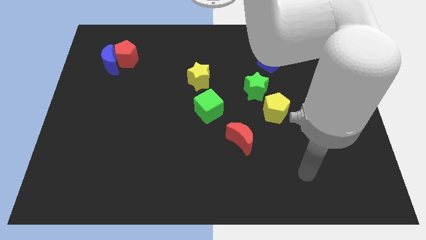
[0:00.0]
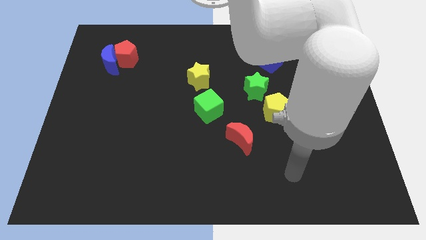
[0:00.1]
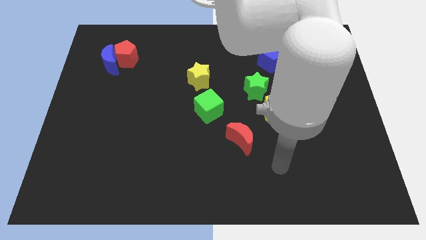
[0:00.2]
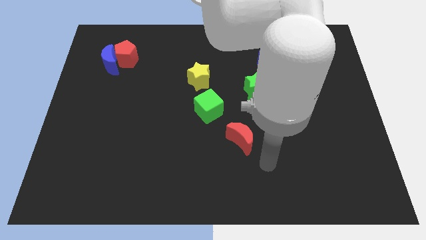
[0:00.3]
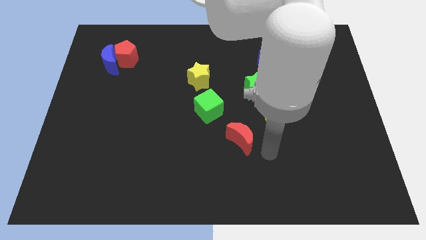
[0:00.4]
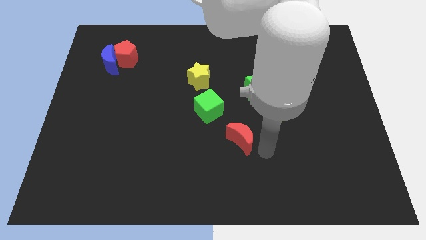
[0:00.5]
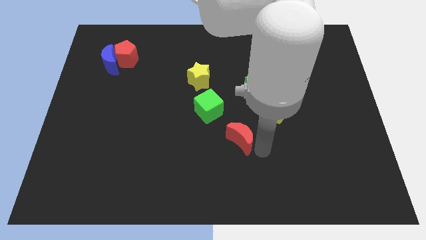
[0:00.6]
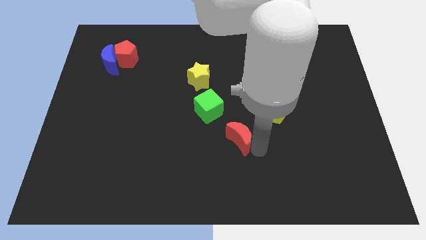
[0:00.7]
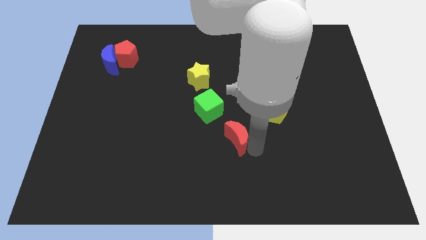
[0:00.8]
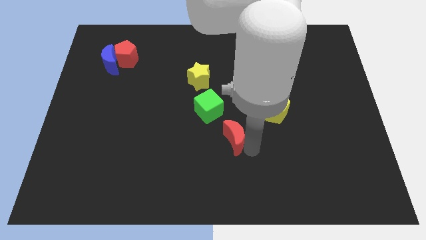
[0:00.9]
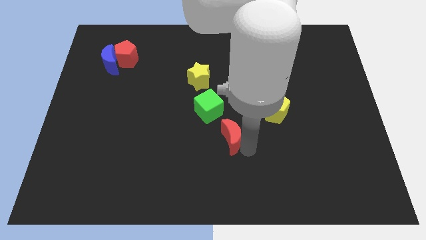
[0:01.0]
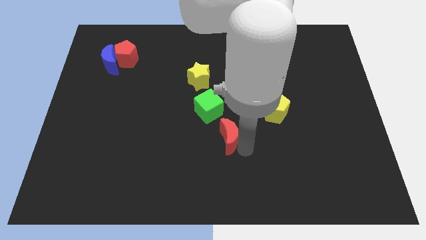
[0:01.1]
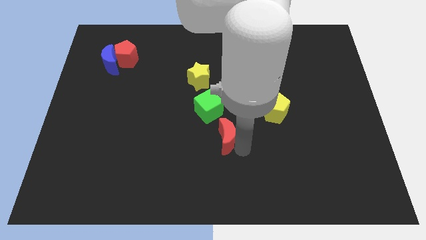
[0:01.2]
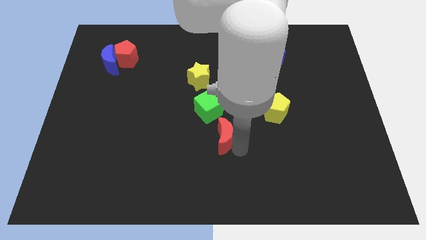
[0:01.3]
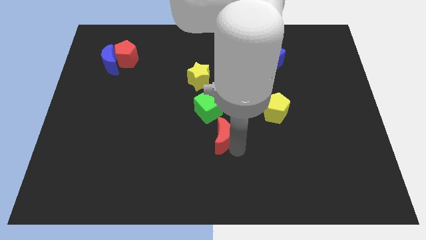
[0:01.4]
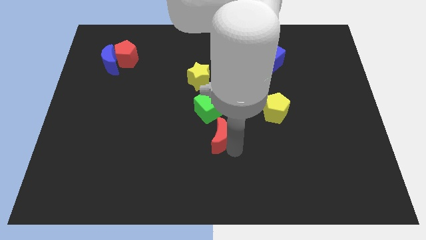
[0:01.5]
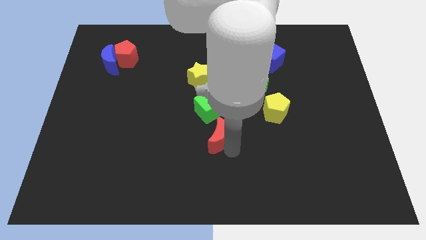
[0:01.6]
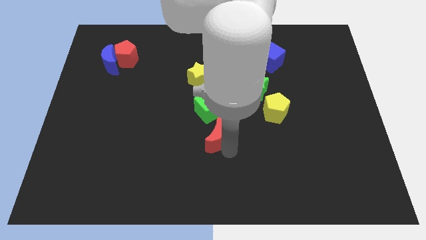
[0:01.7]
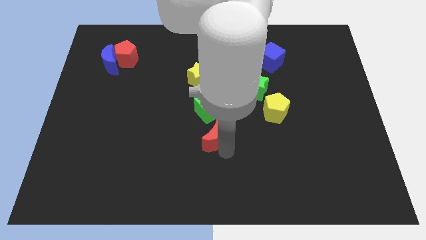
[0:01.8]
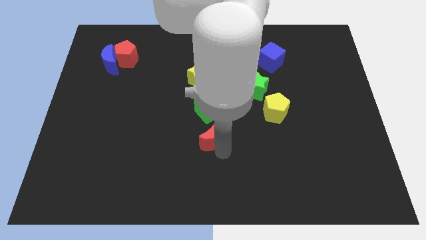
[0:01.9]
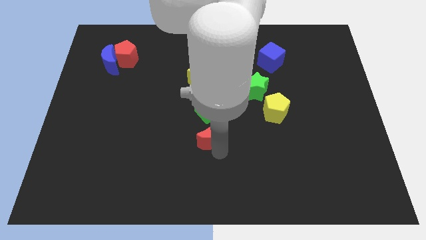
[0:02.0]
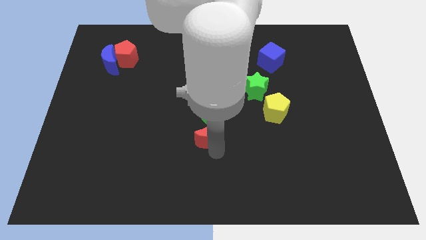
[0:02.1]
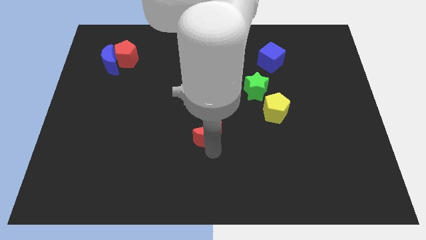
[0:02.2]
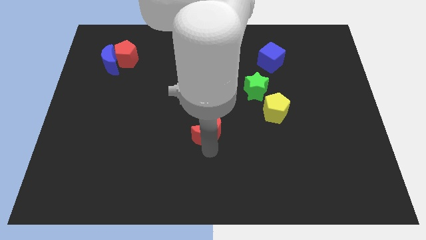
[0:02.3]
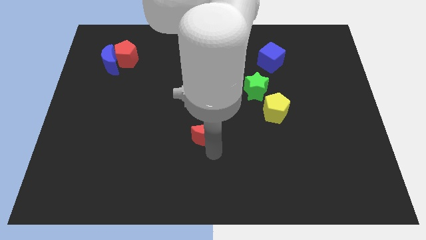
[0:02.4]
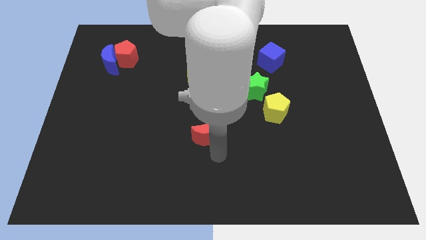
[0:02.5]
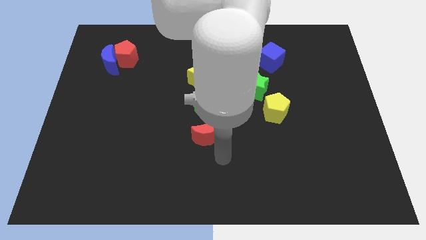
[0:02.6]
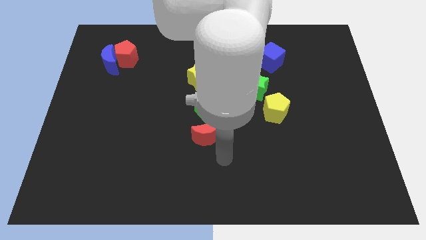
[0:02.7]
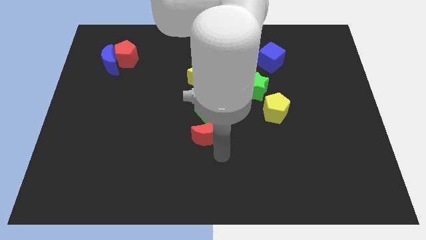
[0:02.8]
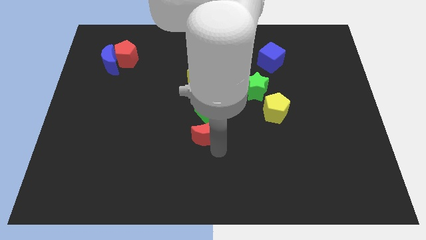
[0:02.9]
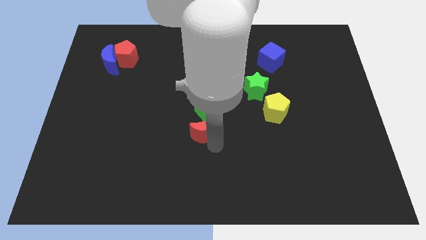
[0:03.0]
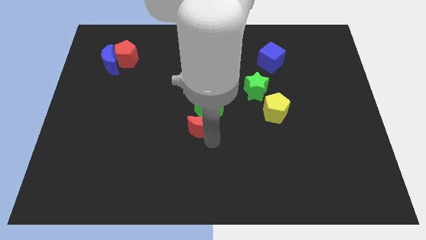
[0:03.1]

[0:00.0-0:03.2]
slightly move the red moon upwards and to the left diagonally

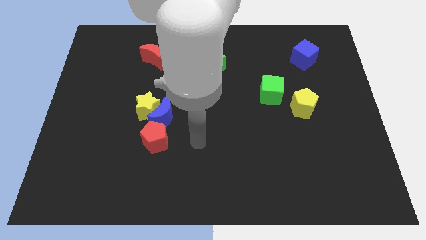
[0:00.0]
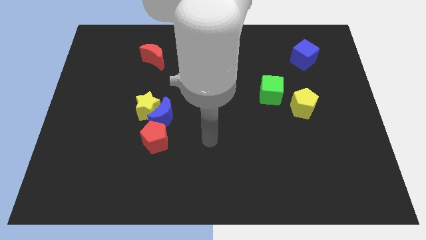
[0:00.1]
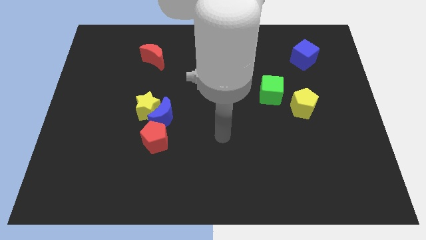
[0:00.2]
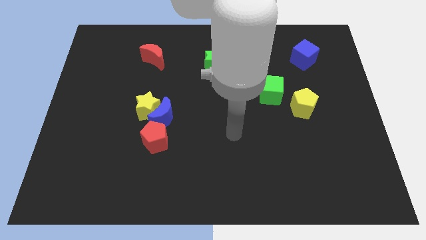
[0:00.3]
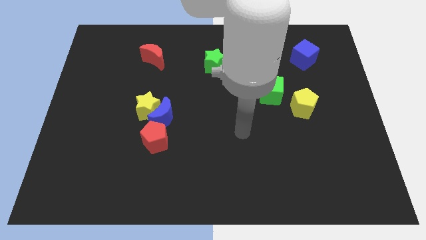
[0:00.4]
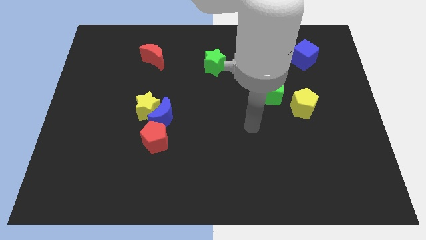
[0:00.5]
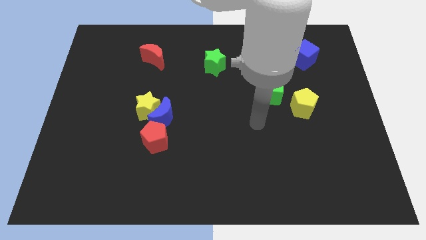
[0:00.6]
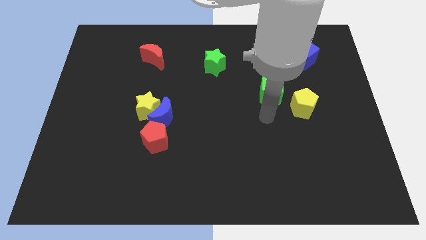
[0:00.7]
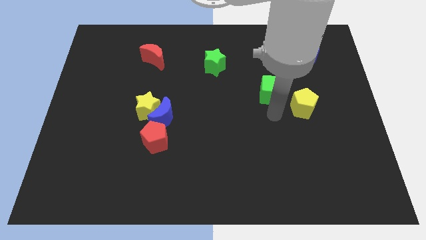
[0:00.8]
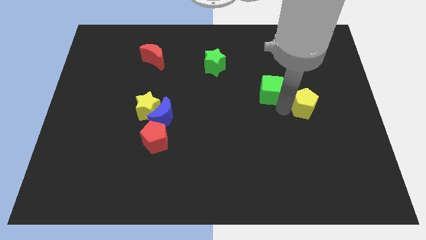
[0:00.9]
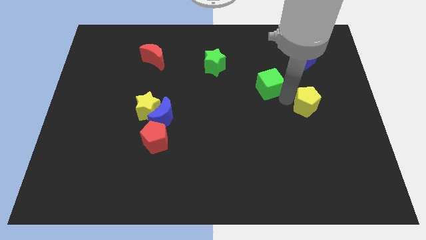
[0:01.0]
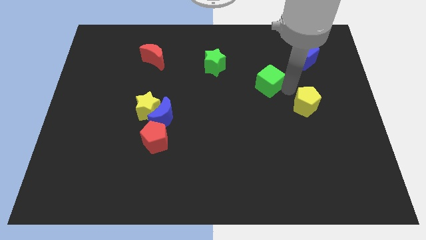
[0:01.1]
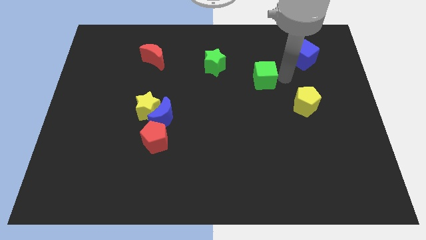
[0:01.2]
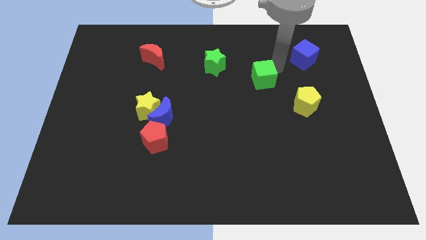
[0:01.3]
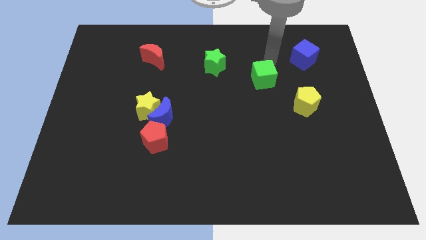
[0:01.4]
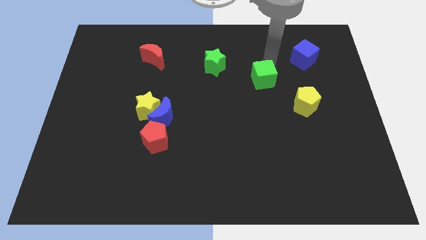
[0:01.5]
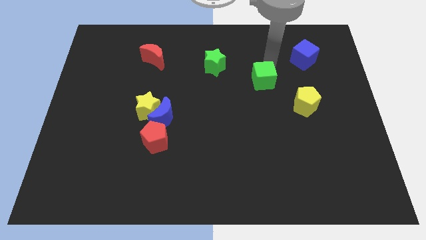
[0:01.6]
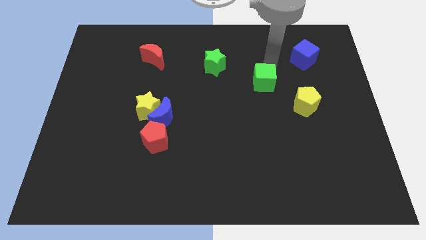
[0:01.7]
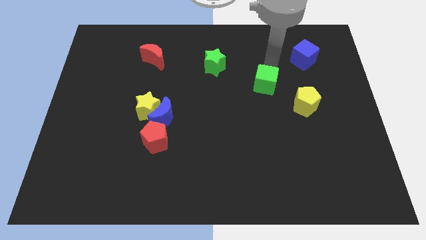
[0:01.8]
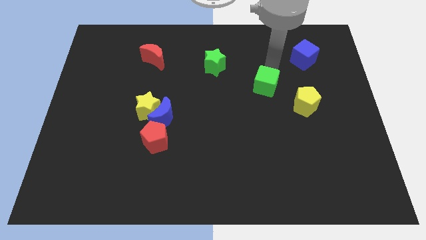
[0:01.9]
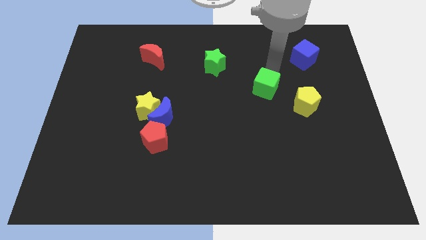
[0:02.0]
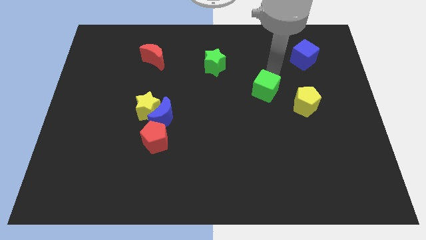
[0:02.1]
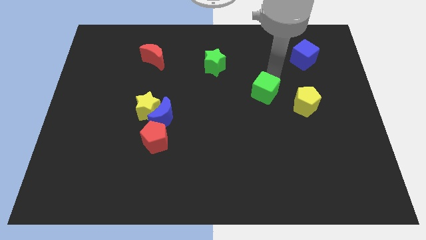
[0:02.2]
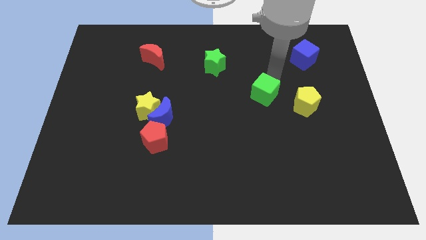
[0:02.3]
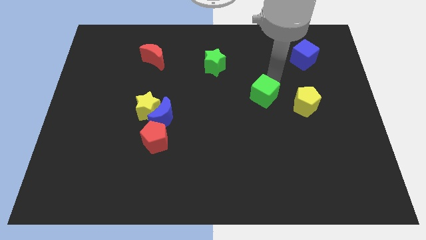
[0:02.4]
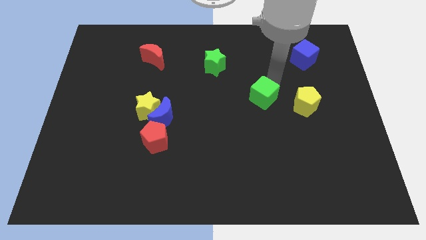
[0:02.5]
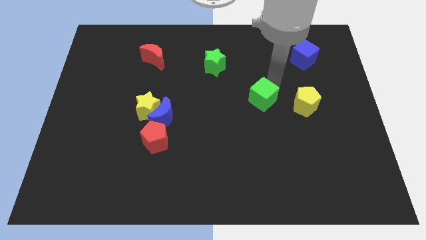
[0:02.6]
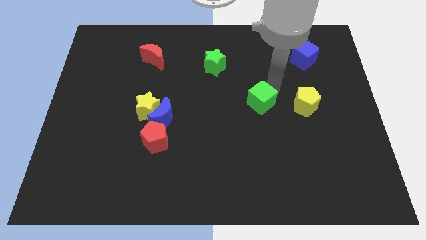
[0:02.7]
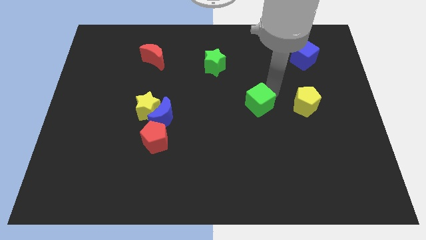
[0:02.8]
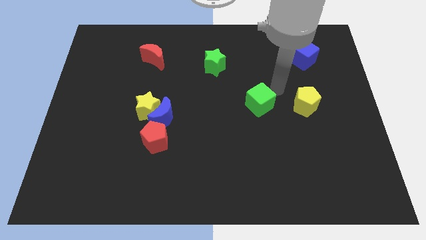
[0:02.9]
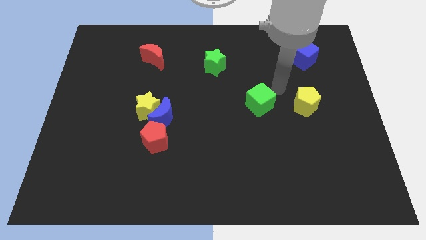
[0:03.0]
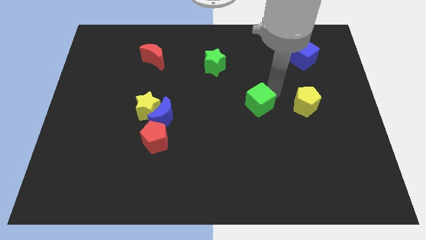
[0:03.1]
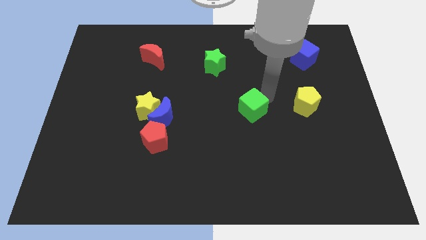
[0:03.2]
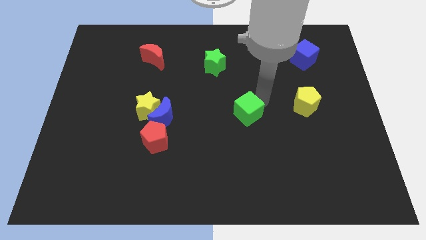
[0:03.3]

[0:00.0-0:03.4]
move the green cube slightly downwards and left

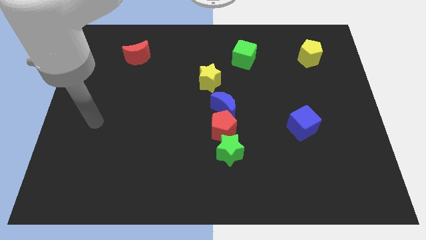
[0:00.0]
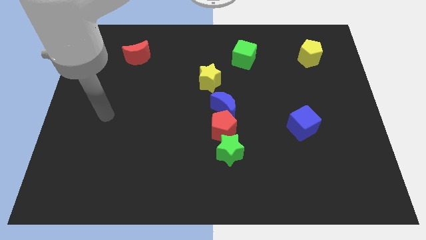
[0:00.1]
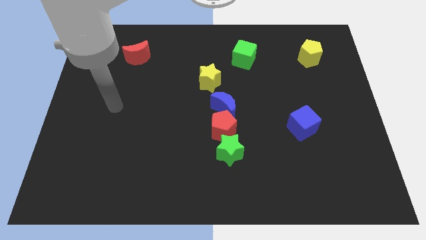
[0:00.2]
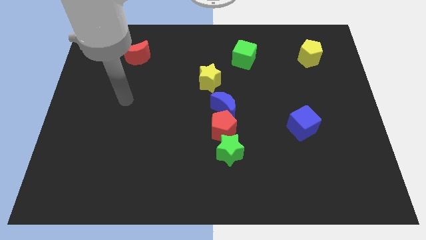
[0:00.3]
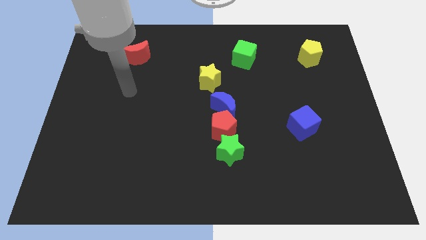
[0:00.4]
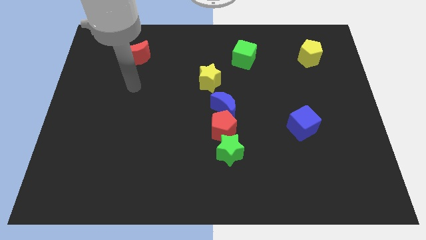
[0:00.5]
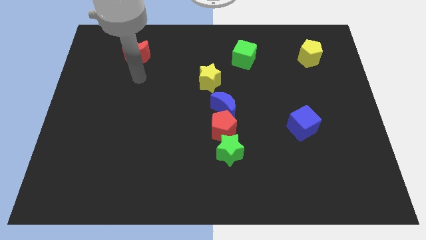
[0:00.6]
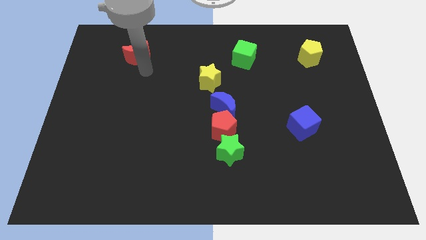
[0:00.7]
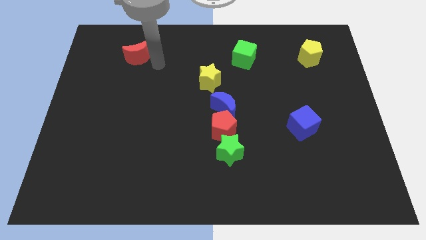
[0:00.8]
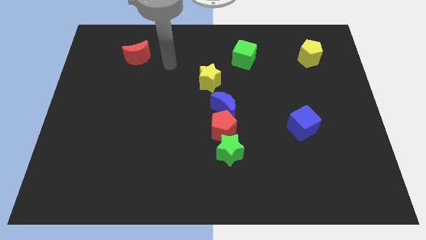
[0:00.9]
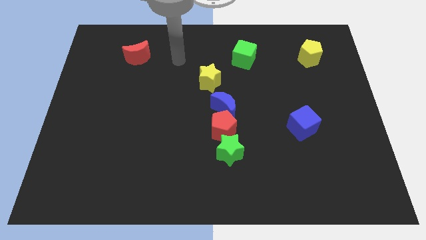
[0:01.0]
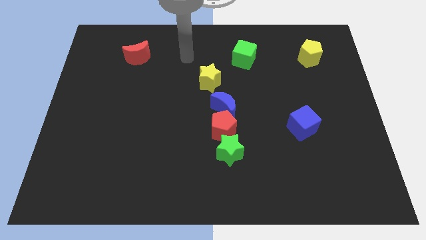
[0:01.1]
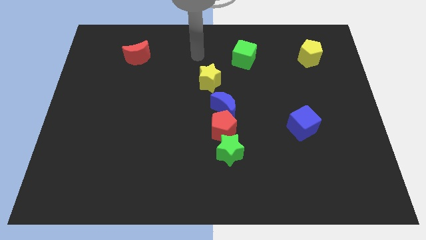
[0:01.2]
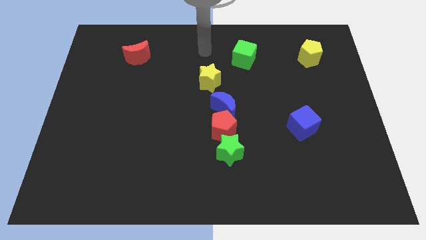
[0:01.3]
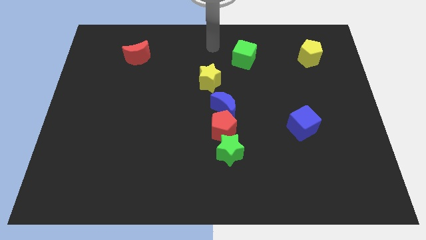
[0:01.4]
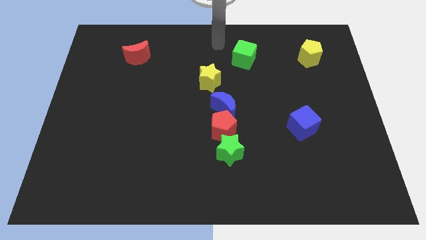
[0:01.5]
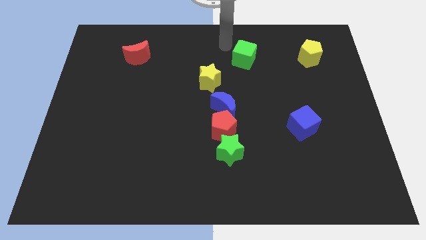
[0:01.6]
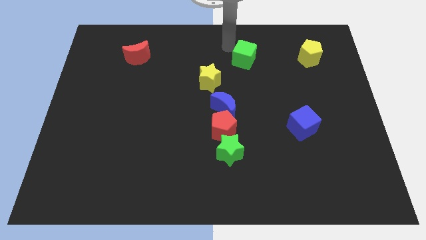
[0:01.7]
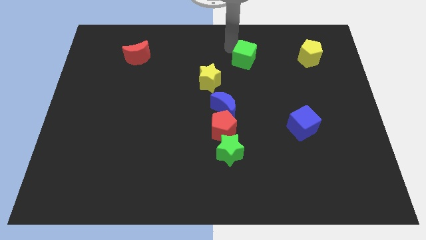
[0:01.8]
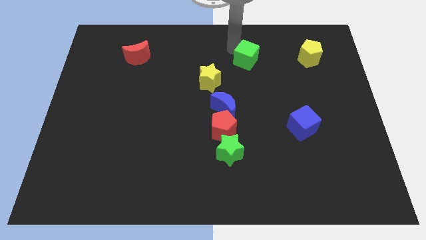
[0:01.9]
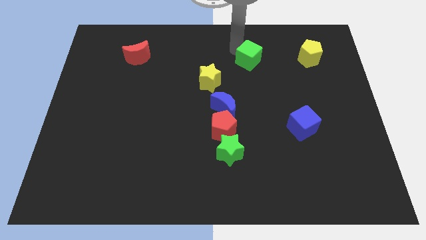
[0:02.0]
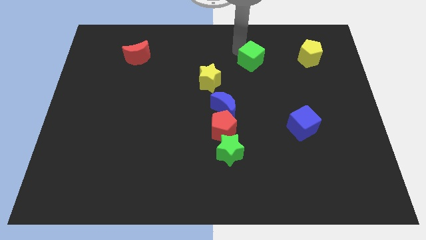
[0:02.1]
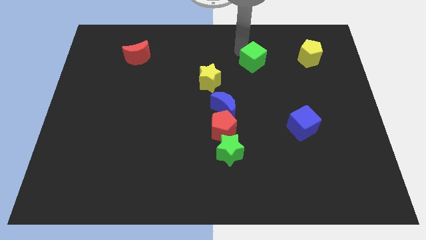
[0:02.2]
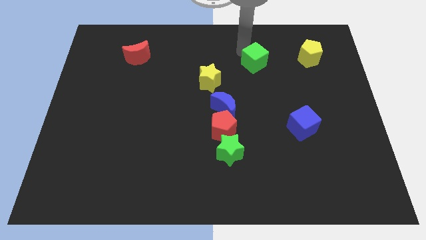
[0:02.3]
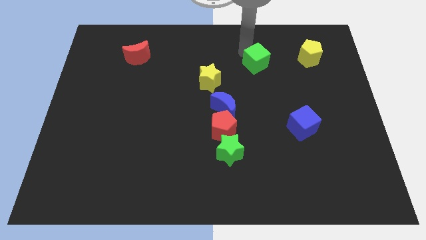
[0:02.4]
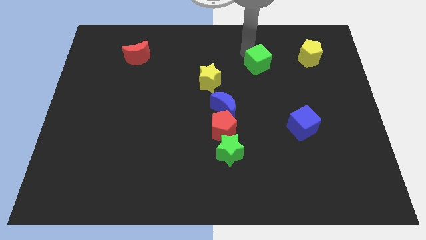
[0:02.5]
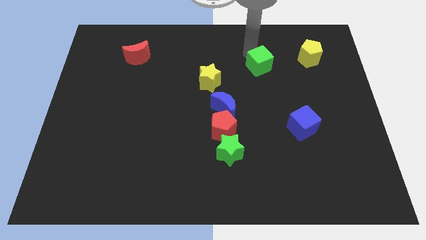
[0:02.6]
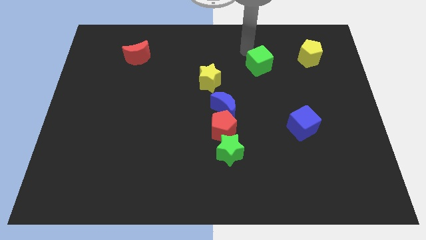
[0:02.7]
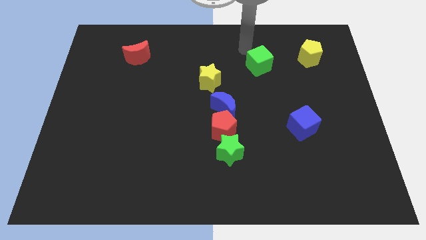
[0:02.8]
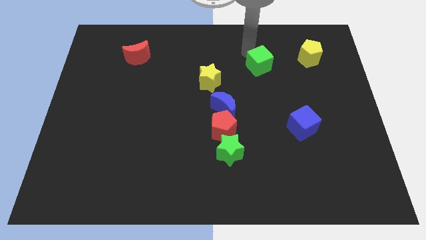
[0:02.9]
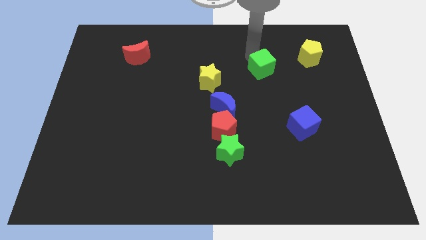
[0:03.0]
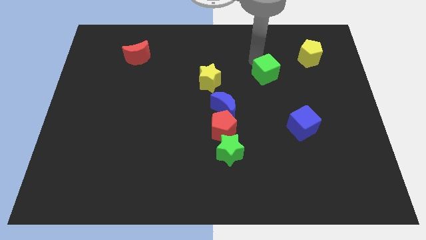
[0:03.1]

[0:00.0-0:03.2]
move the green cube slightly down and then to the right
